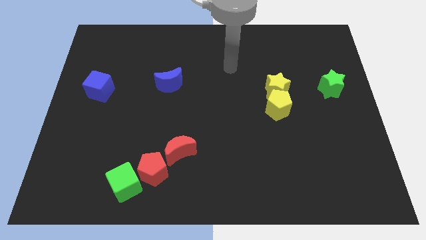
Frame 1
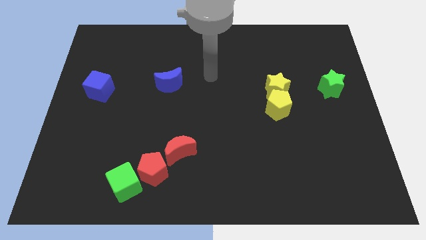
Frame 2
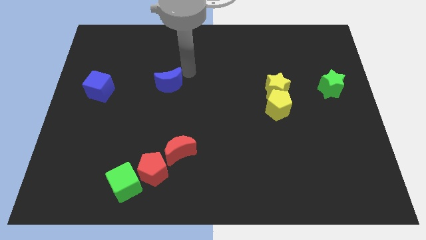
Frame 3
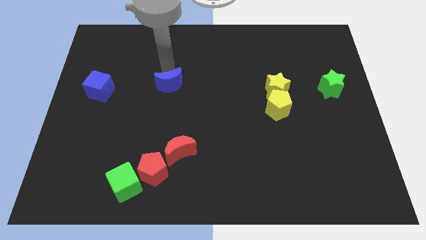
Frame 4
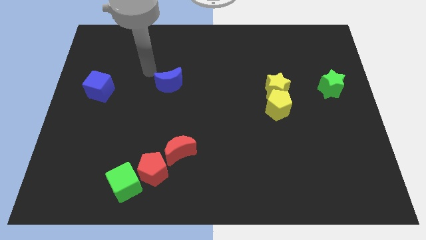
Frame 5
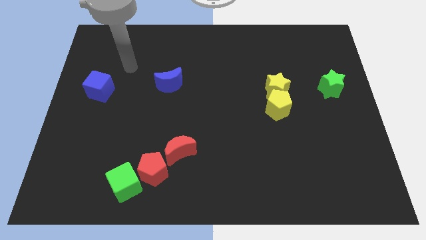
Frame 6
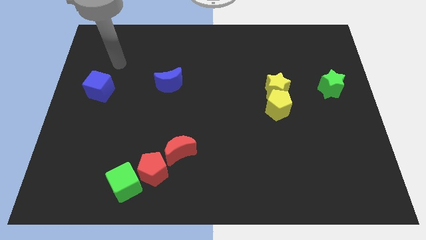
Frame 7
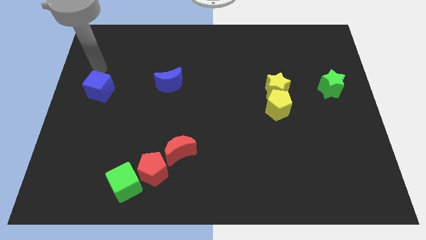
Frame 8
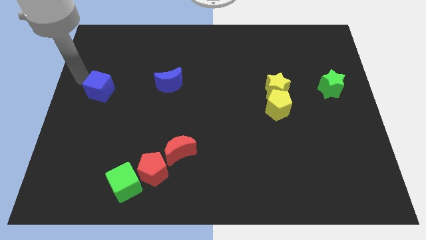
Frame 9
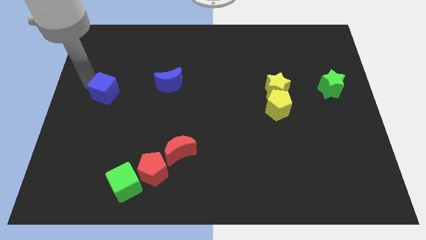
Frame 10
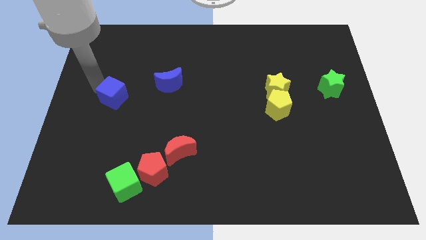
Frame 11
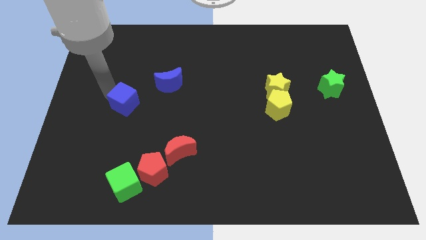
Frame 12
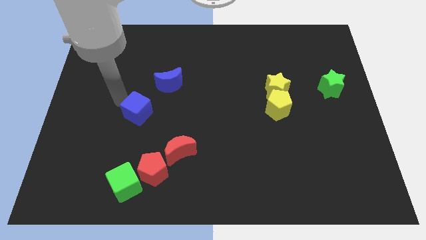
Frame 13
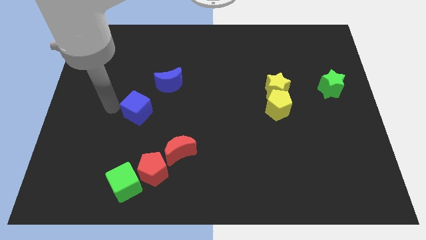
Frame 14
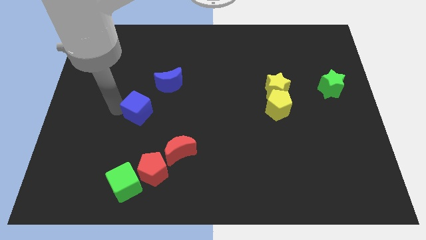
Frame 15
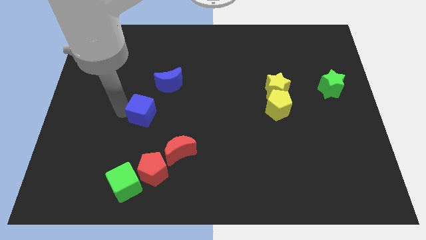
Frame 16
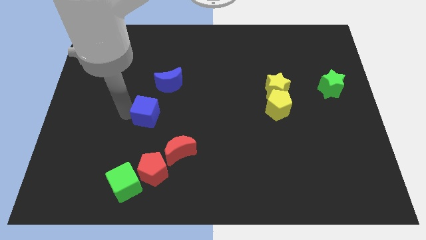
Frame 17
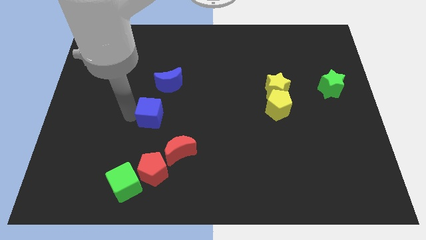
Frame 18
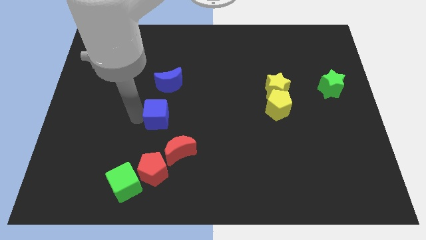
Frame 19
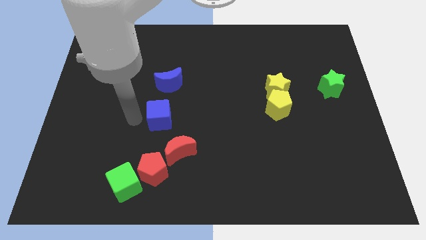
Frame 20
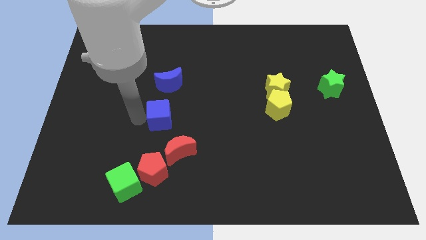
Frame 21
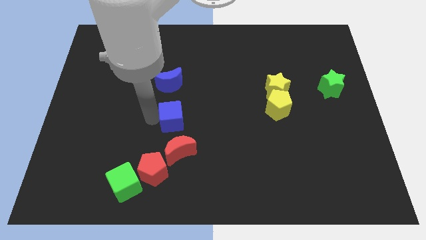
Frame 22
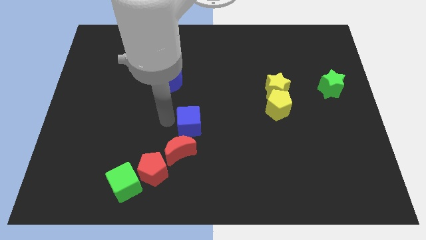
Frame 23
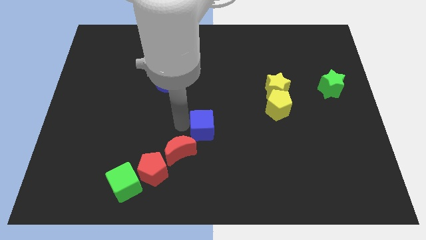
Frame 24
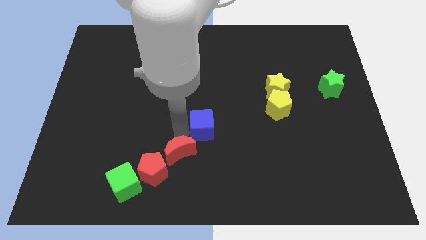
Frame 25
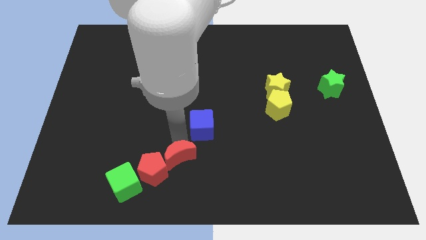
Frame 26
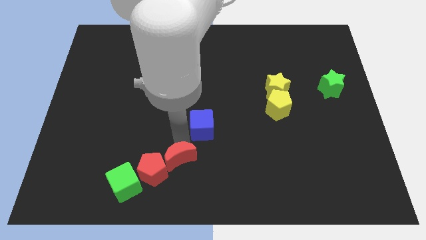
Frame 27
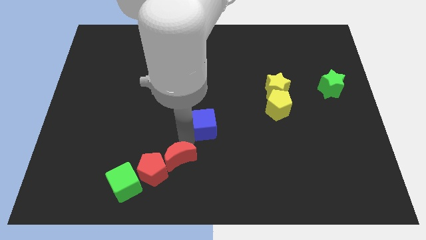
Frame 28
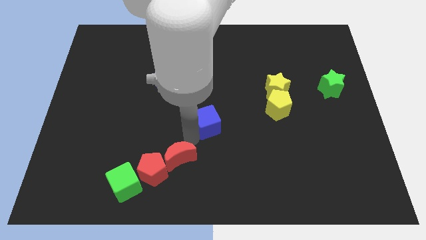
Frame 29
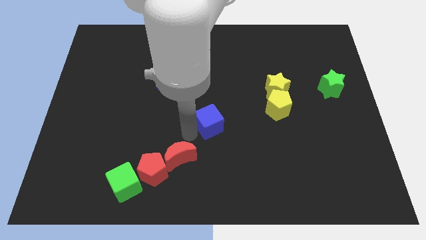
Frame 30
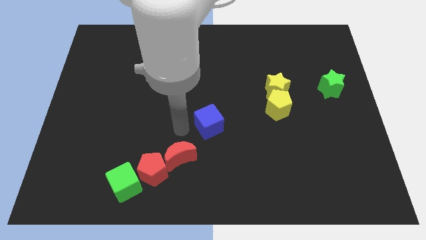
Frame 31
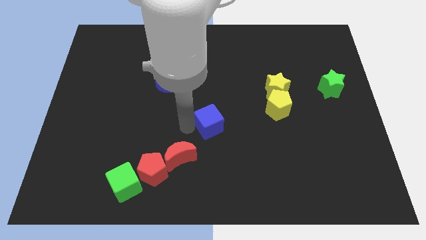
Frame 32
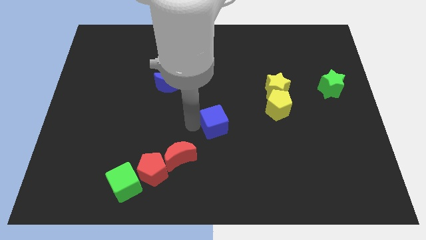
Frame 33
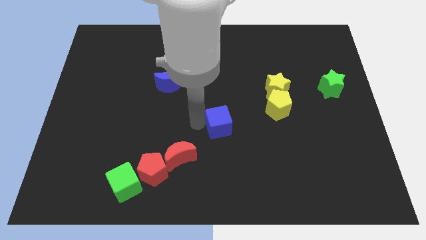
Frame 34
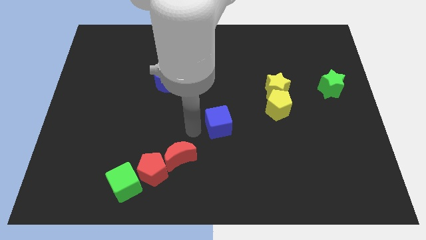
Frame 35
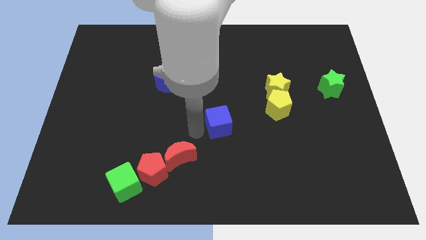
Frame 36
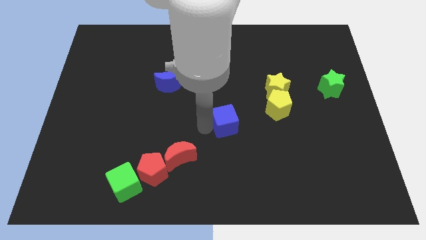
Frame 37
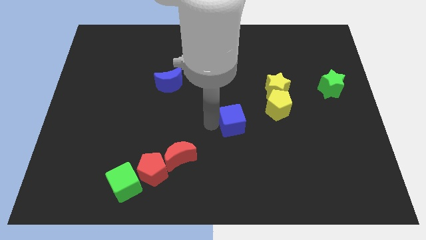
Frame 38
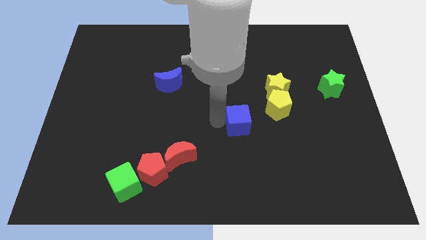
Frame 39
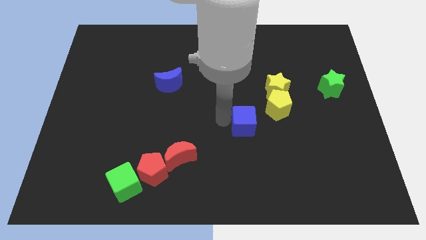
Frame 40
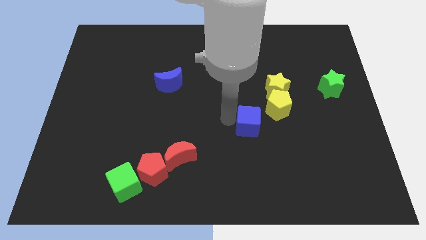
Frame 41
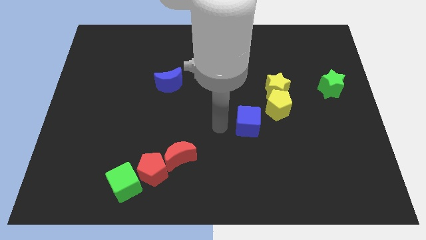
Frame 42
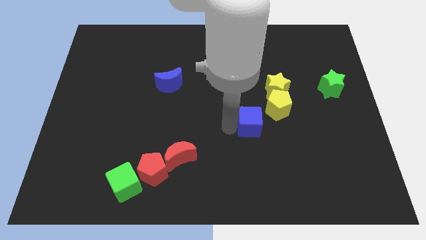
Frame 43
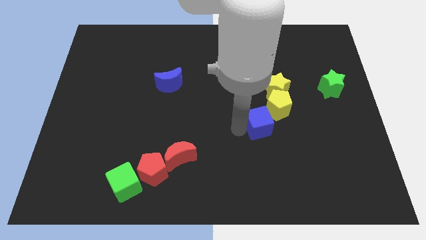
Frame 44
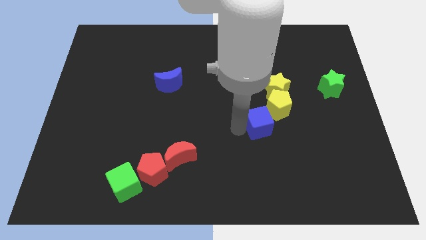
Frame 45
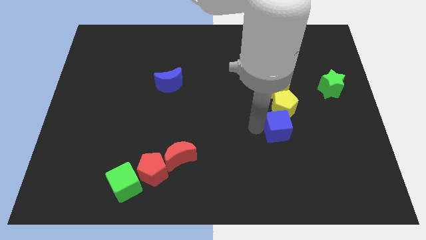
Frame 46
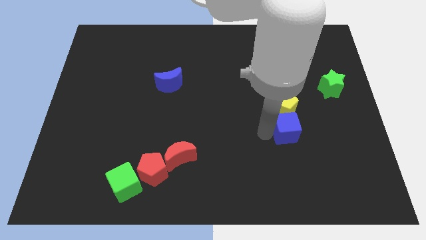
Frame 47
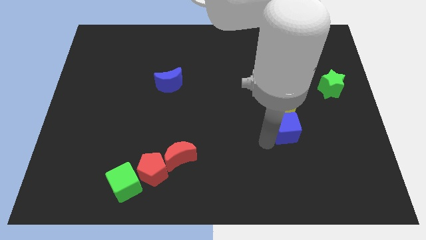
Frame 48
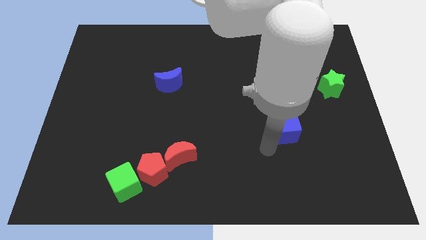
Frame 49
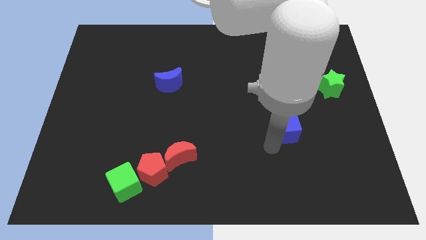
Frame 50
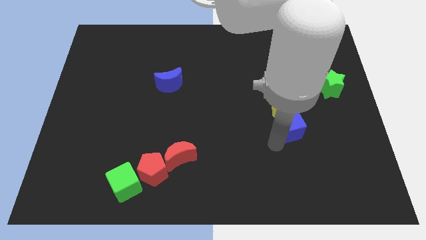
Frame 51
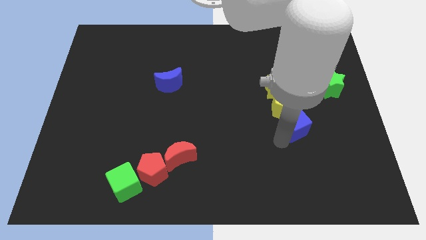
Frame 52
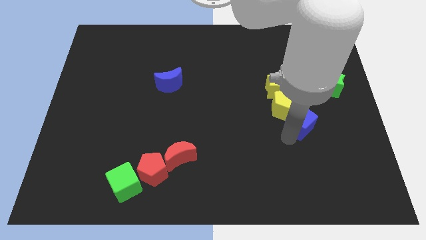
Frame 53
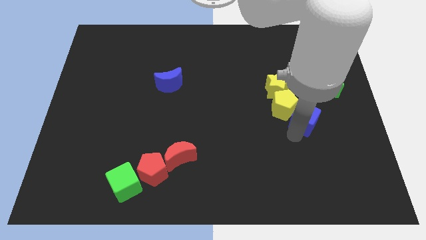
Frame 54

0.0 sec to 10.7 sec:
move the blue cube to the bottom left of the green star

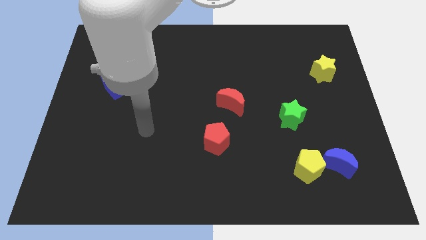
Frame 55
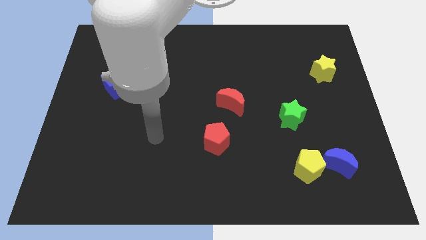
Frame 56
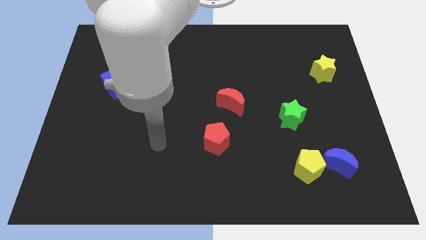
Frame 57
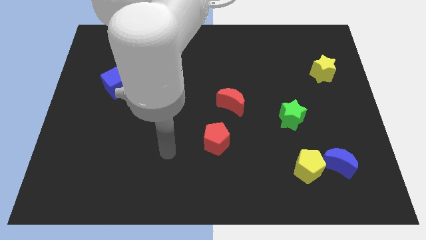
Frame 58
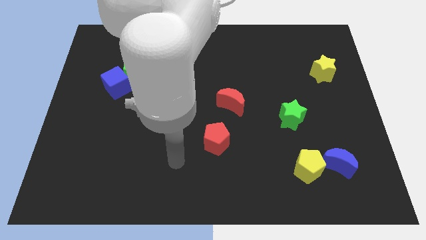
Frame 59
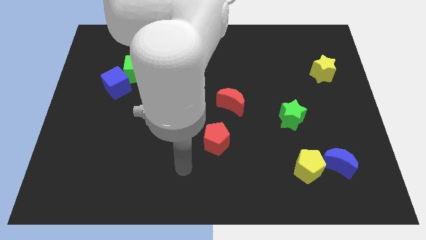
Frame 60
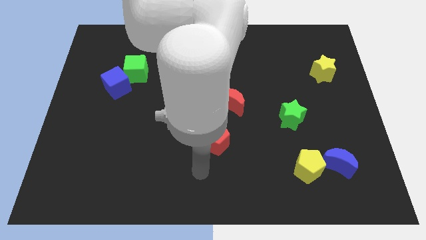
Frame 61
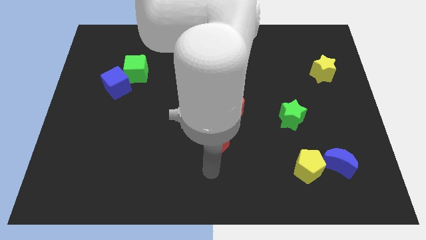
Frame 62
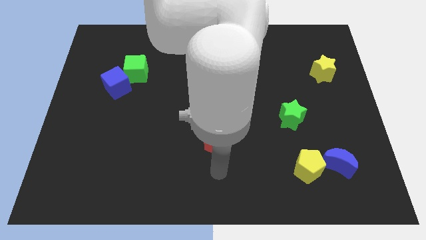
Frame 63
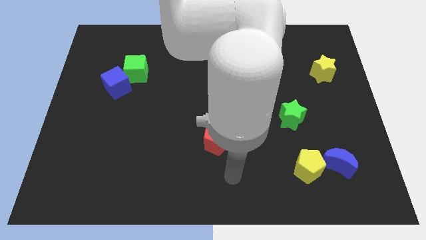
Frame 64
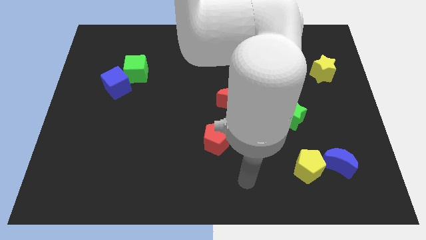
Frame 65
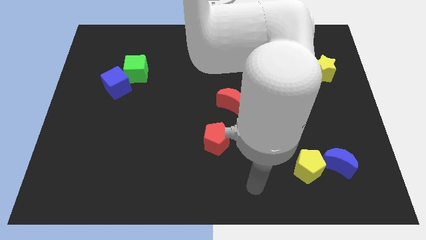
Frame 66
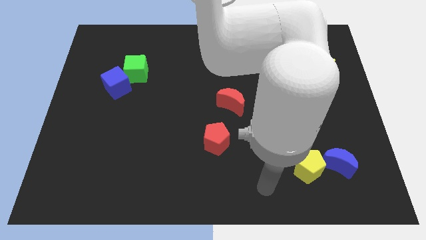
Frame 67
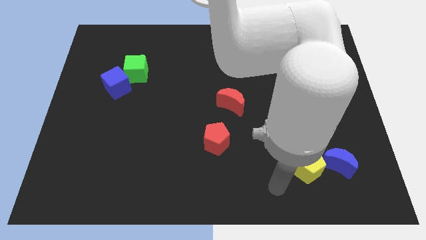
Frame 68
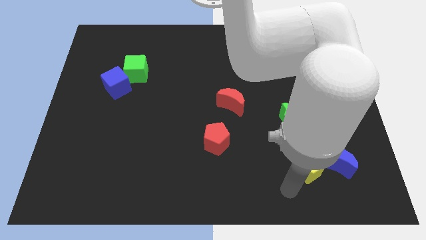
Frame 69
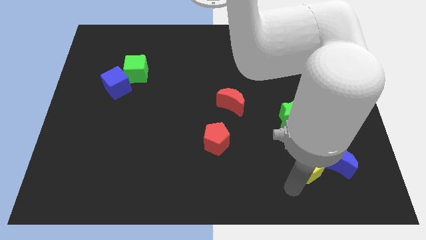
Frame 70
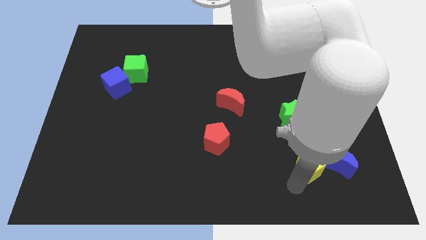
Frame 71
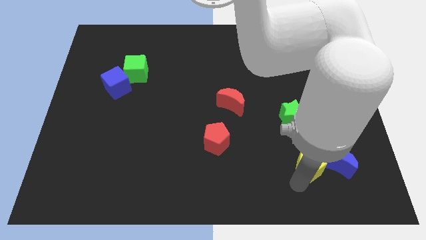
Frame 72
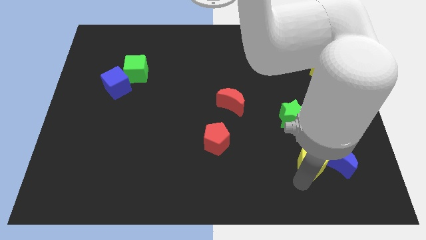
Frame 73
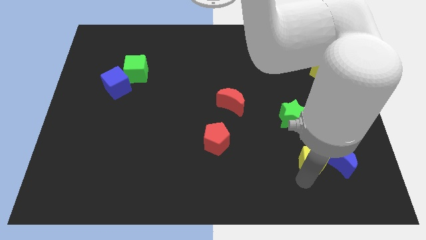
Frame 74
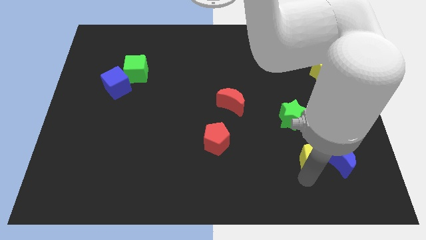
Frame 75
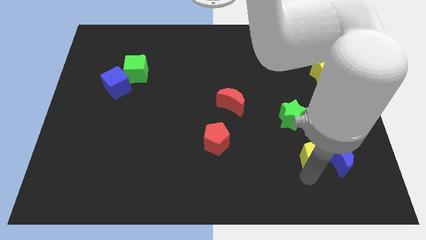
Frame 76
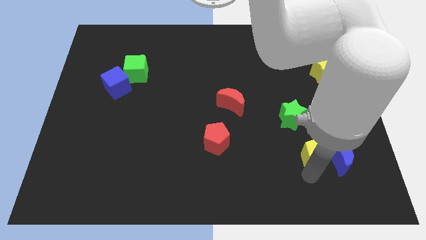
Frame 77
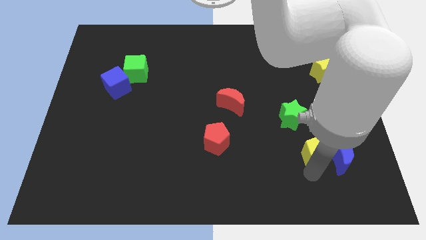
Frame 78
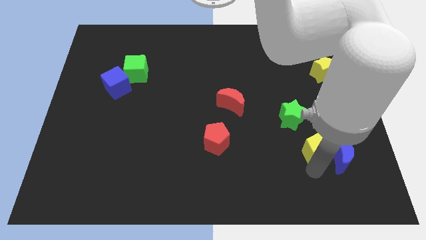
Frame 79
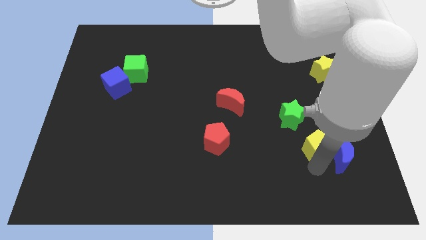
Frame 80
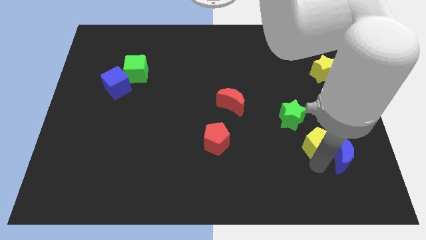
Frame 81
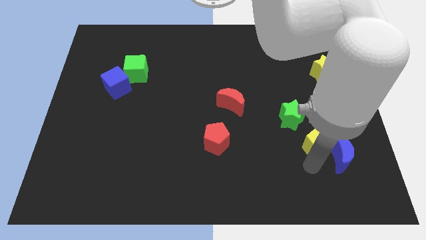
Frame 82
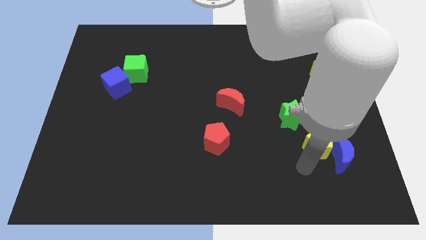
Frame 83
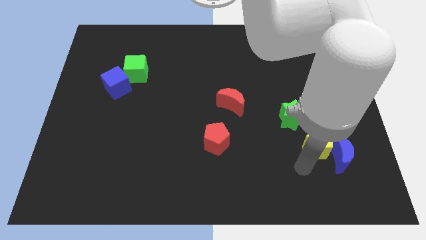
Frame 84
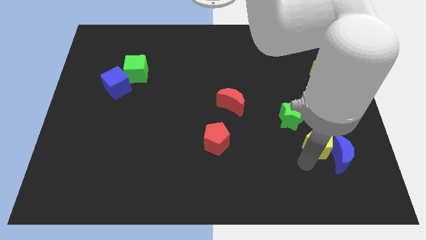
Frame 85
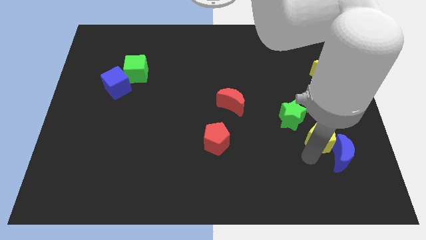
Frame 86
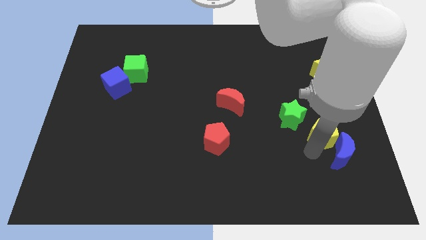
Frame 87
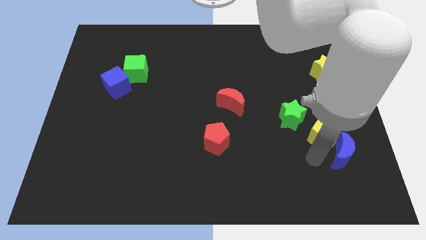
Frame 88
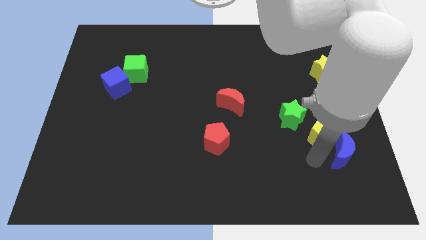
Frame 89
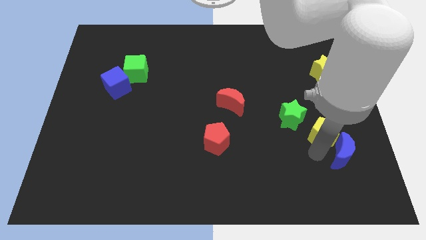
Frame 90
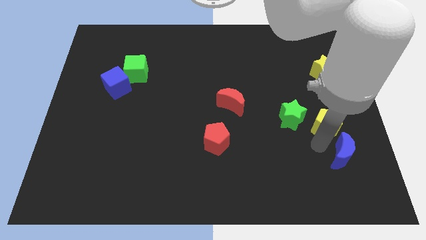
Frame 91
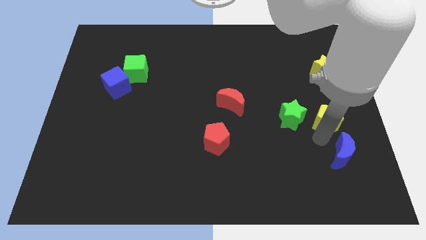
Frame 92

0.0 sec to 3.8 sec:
push the yellow pentagon to the bottom of the yellow star
